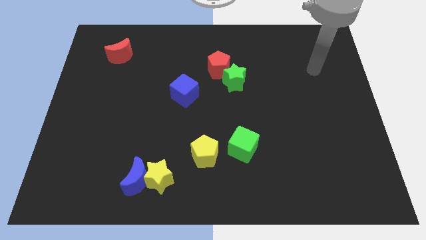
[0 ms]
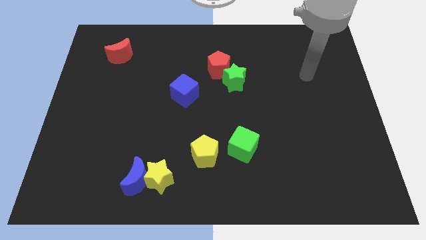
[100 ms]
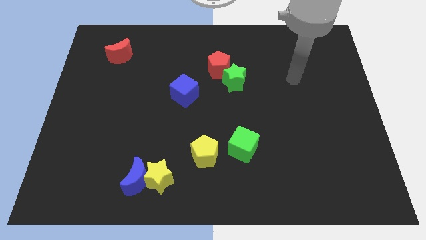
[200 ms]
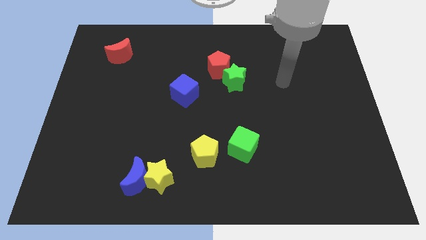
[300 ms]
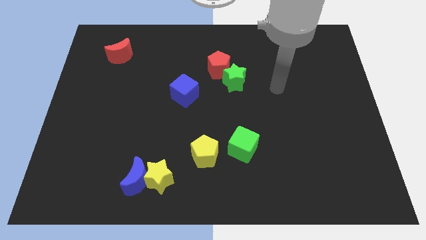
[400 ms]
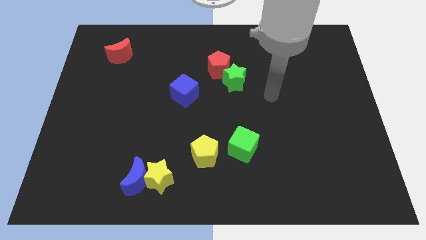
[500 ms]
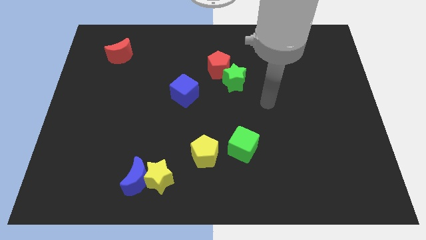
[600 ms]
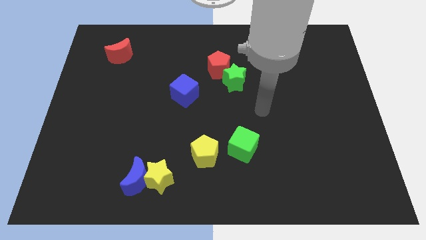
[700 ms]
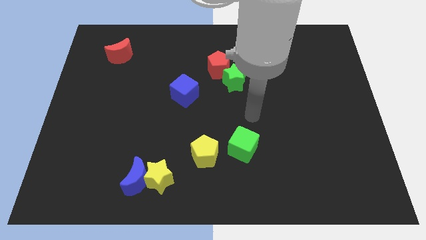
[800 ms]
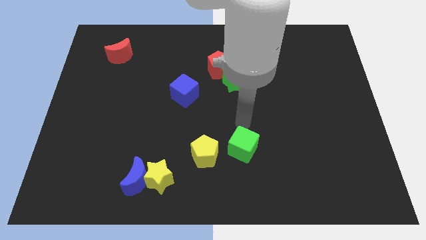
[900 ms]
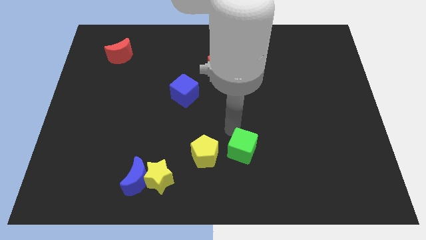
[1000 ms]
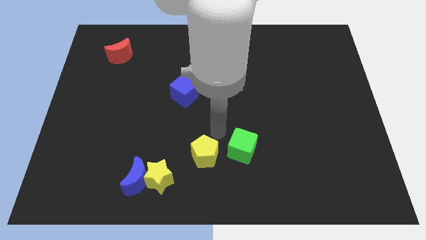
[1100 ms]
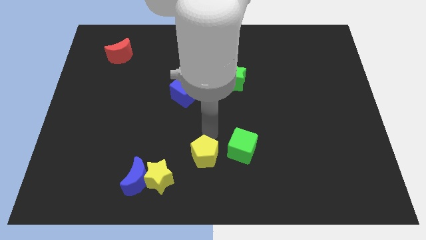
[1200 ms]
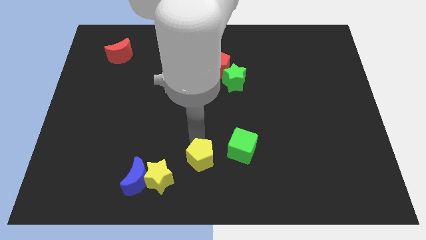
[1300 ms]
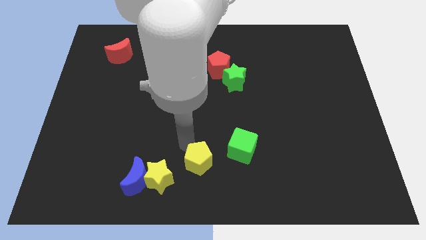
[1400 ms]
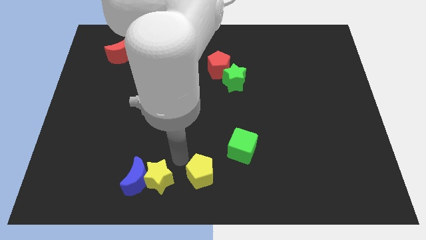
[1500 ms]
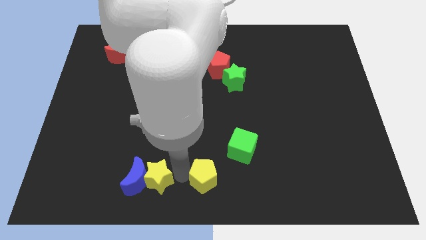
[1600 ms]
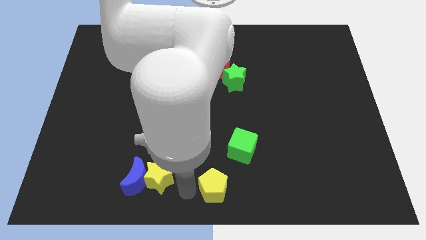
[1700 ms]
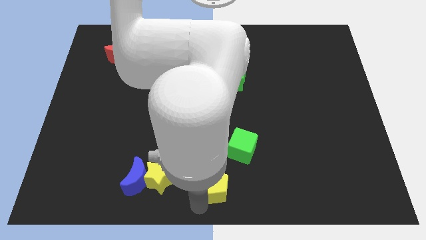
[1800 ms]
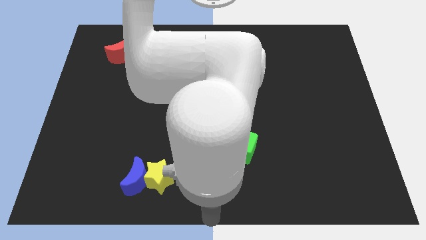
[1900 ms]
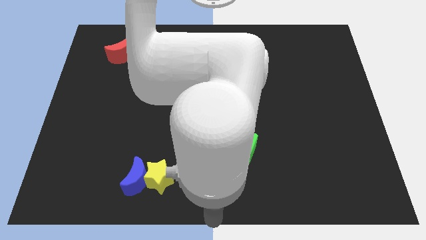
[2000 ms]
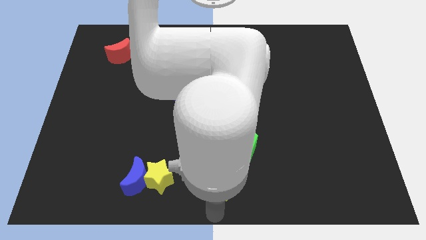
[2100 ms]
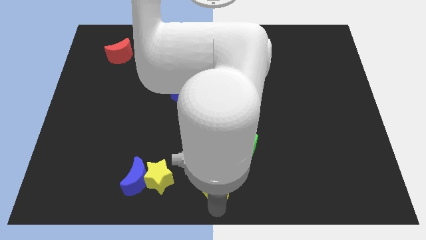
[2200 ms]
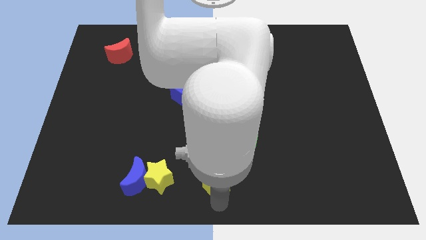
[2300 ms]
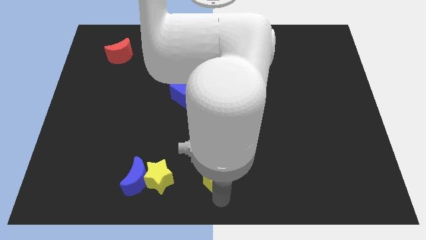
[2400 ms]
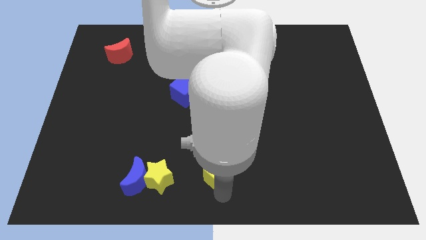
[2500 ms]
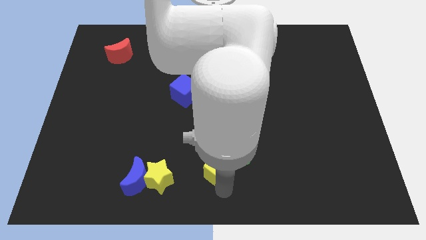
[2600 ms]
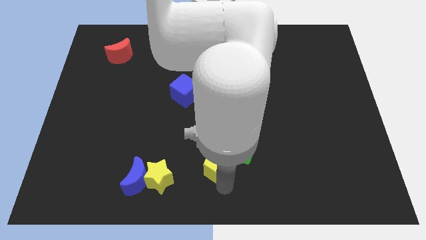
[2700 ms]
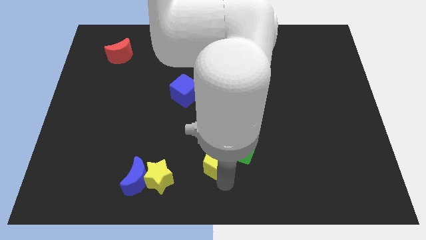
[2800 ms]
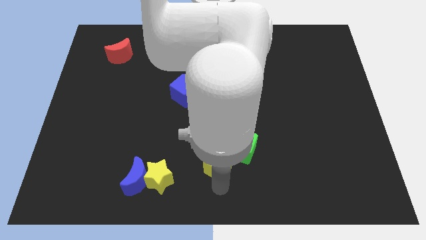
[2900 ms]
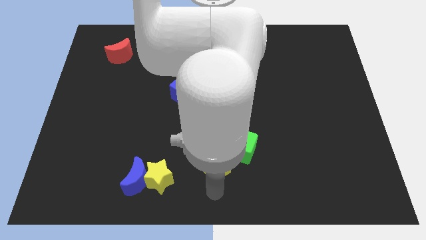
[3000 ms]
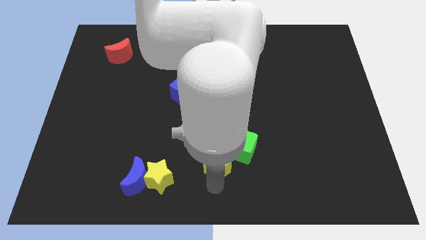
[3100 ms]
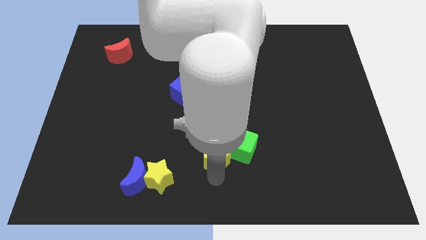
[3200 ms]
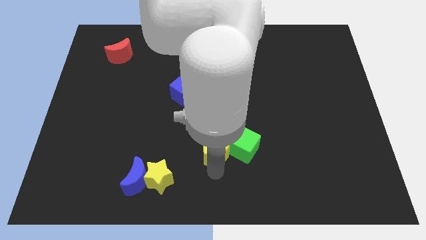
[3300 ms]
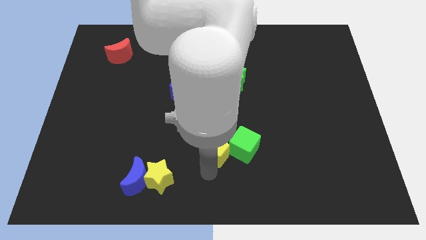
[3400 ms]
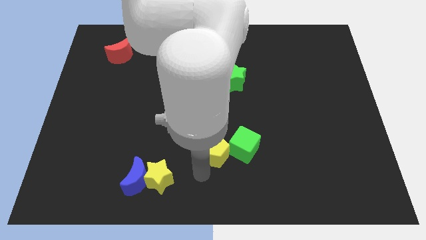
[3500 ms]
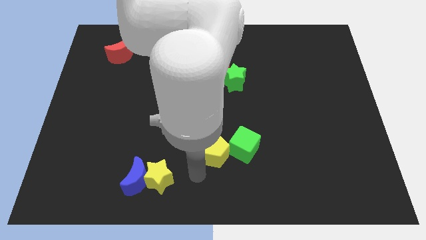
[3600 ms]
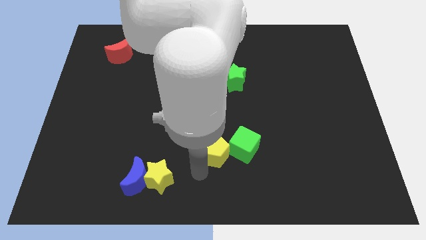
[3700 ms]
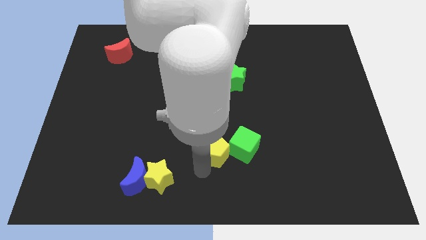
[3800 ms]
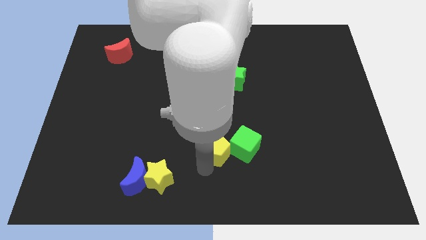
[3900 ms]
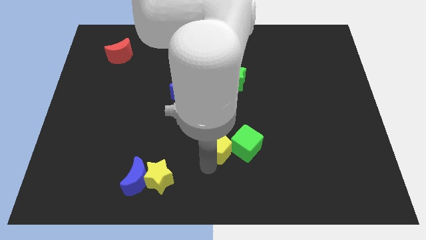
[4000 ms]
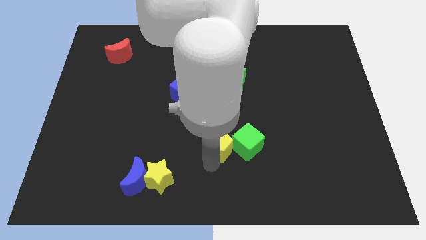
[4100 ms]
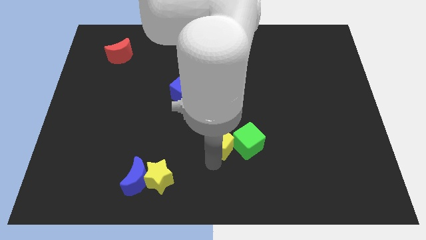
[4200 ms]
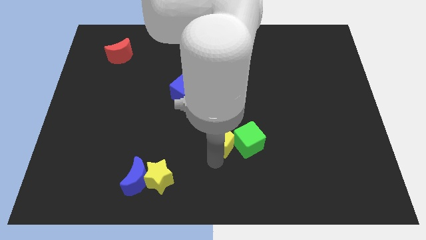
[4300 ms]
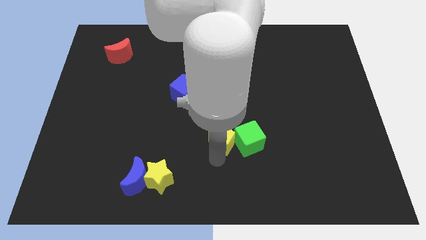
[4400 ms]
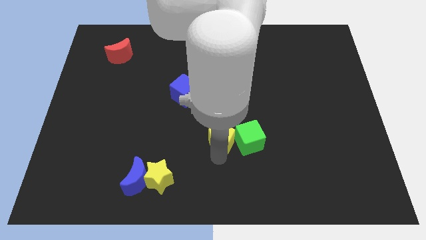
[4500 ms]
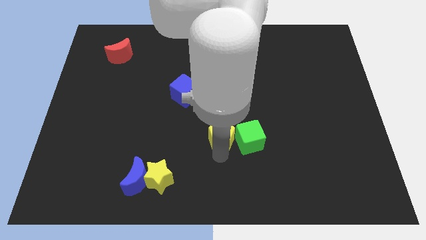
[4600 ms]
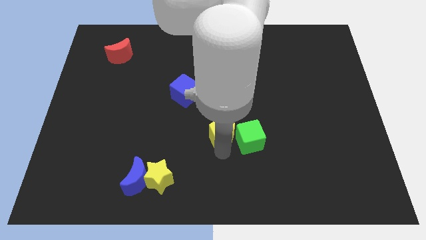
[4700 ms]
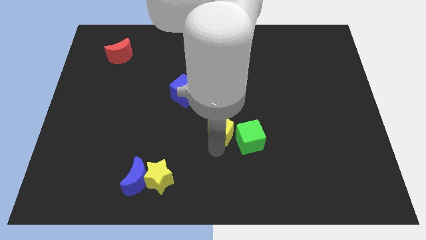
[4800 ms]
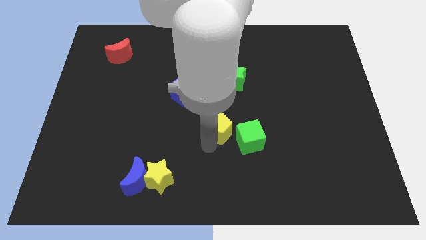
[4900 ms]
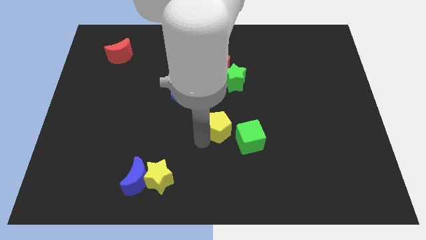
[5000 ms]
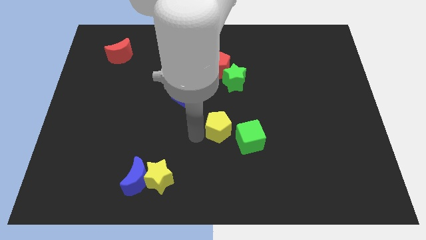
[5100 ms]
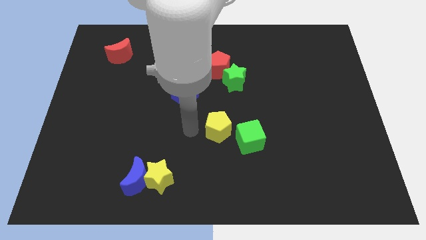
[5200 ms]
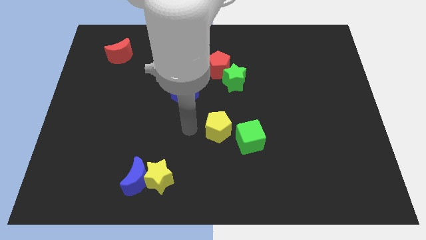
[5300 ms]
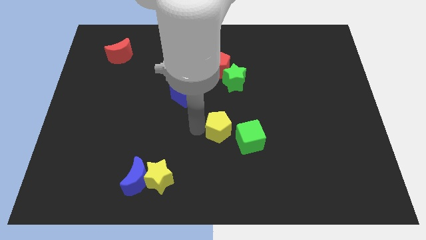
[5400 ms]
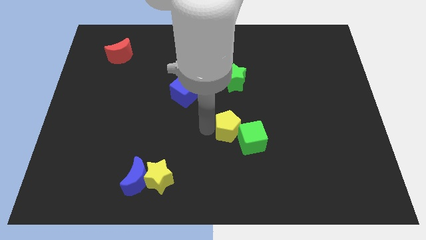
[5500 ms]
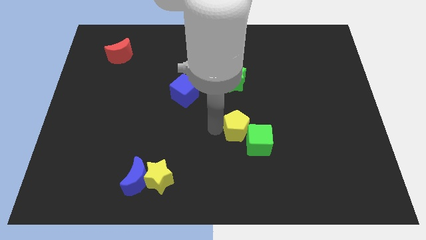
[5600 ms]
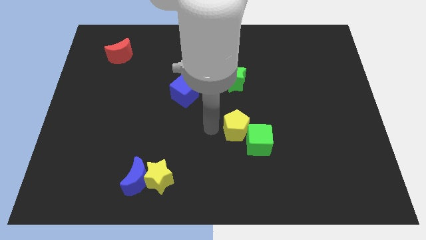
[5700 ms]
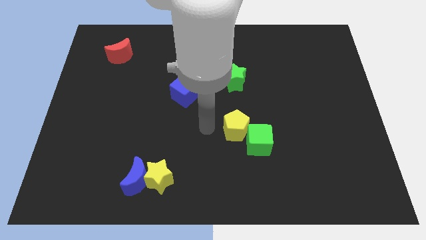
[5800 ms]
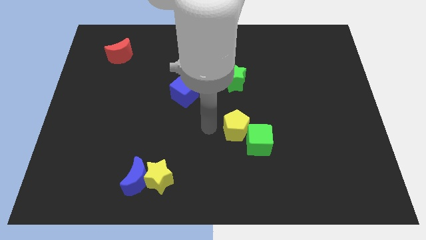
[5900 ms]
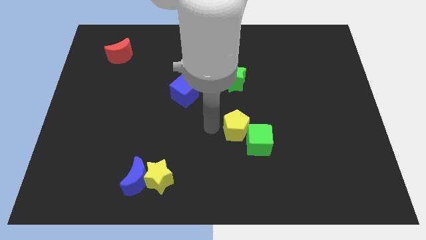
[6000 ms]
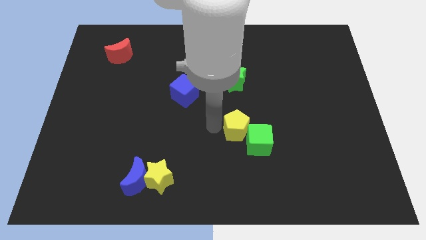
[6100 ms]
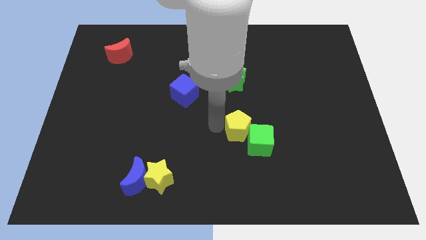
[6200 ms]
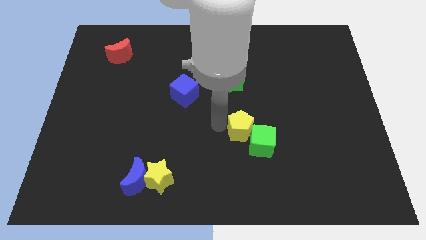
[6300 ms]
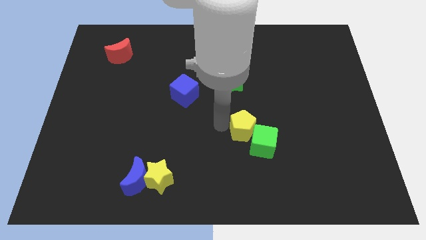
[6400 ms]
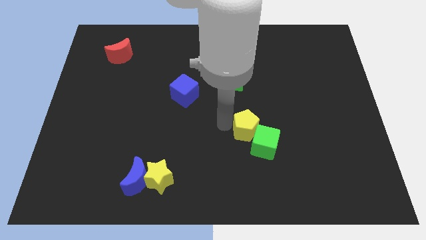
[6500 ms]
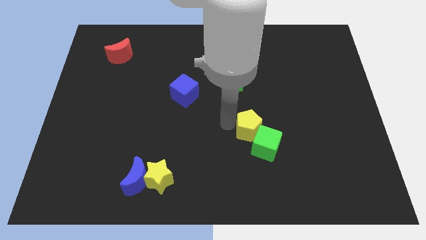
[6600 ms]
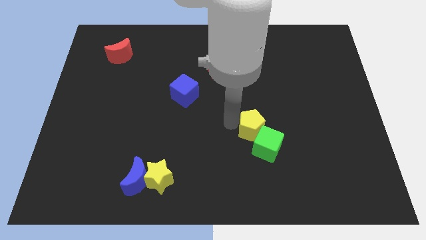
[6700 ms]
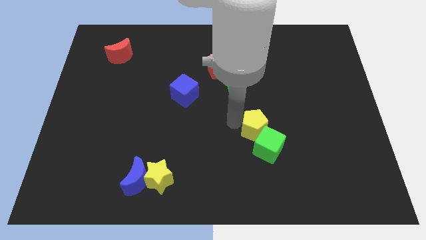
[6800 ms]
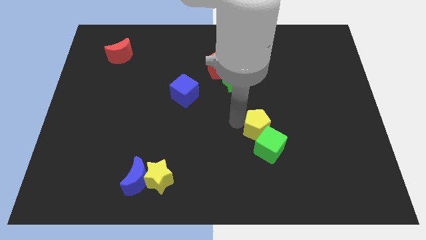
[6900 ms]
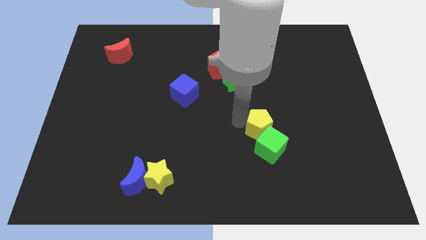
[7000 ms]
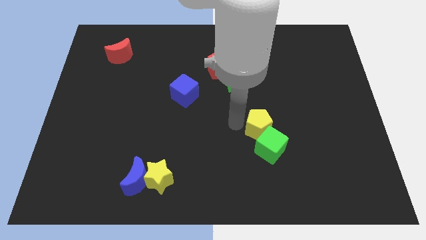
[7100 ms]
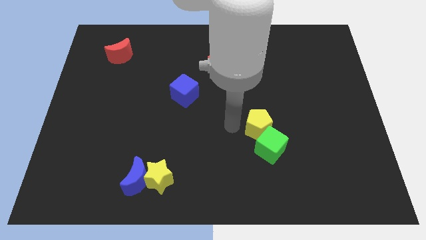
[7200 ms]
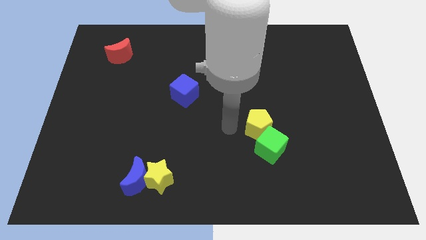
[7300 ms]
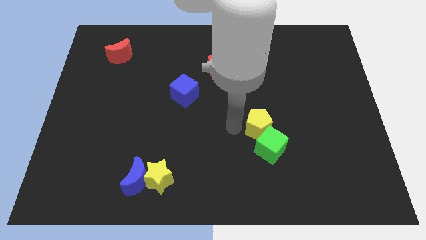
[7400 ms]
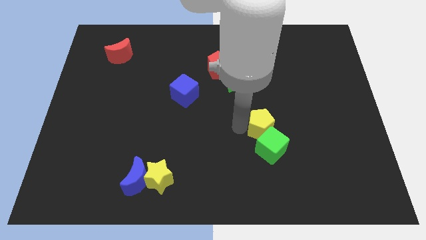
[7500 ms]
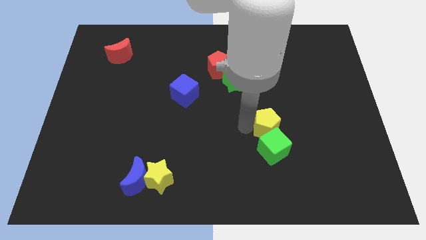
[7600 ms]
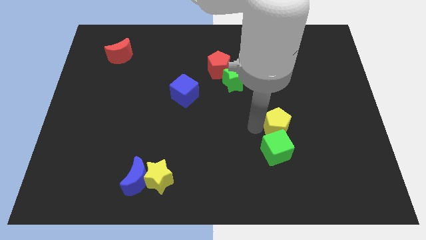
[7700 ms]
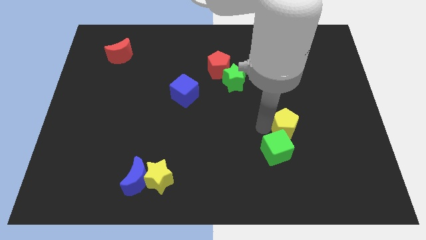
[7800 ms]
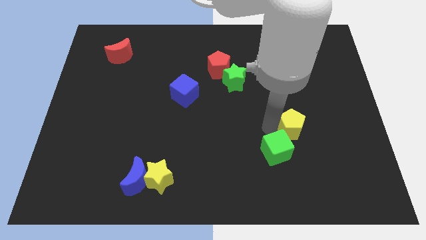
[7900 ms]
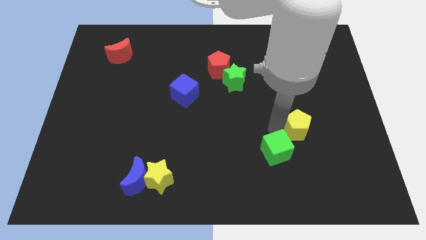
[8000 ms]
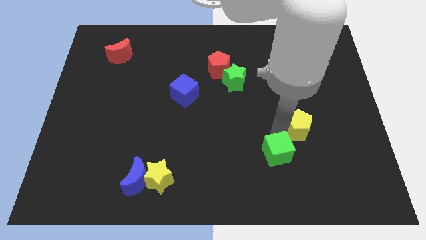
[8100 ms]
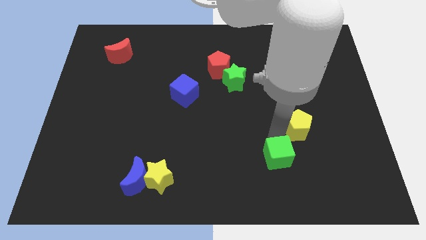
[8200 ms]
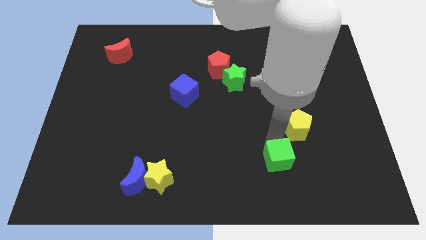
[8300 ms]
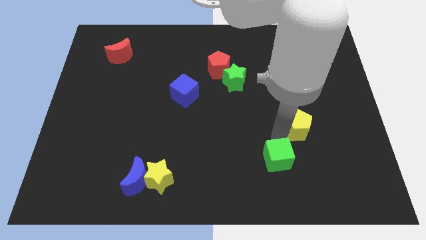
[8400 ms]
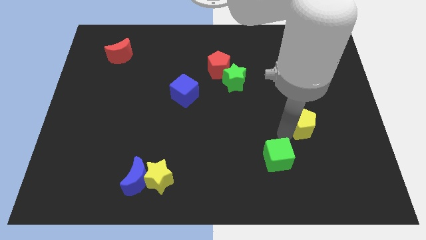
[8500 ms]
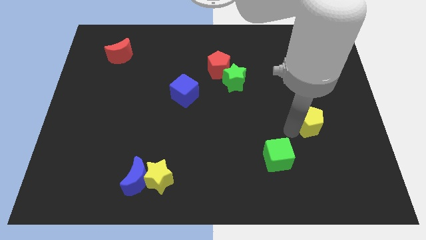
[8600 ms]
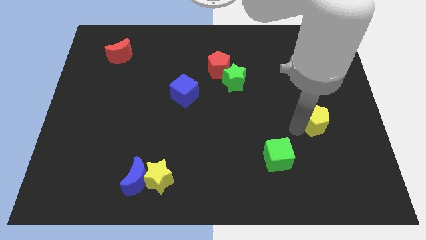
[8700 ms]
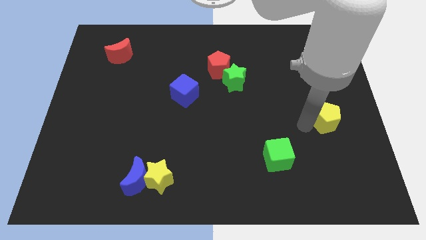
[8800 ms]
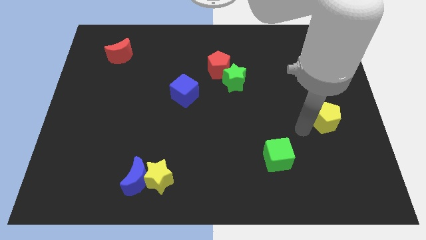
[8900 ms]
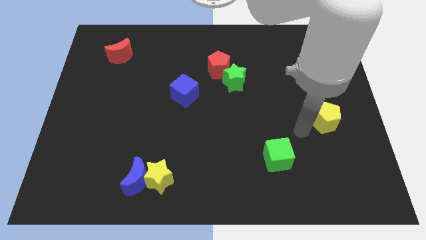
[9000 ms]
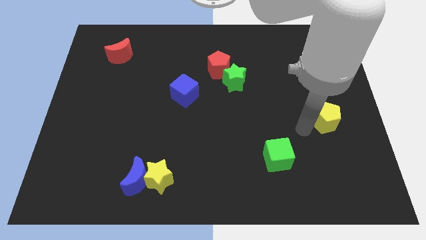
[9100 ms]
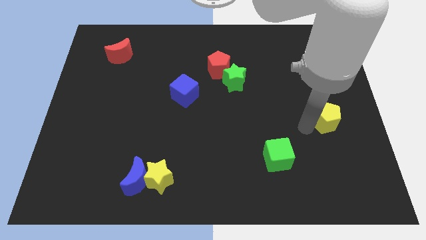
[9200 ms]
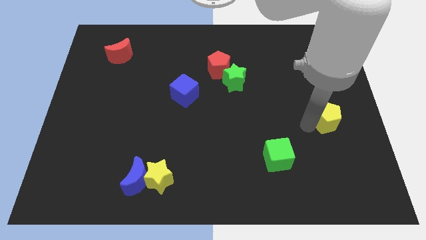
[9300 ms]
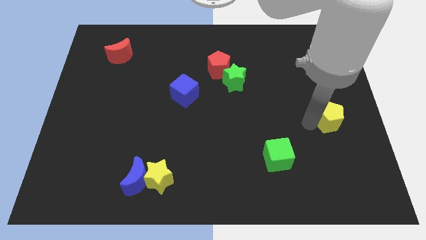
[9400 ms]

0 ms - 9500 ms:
slide the yellow pentagon to the right side
